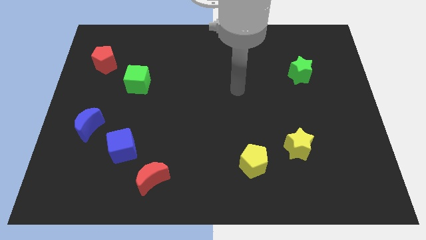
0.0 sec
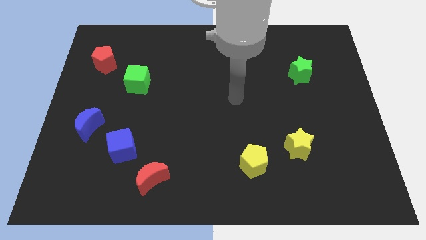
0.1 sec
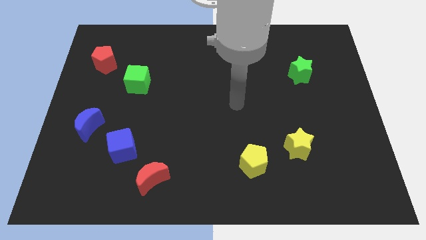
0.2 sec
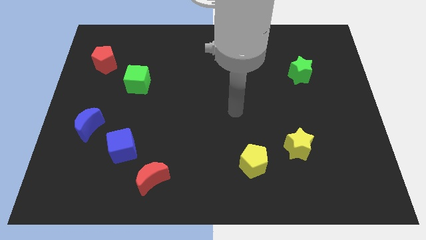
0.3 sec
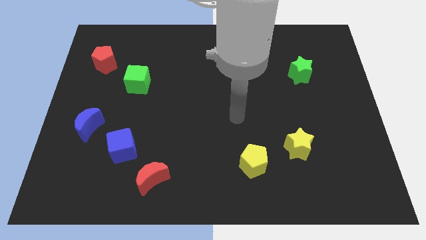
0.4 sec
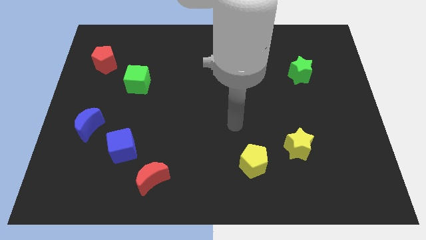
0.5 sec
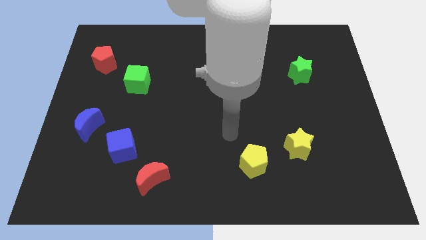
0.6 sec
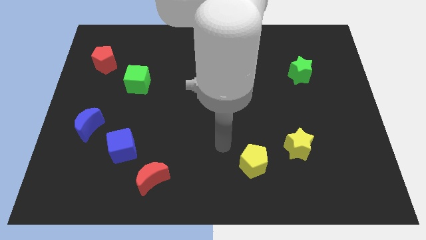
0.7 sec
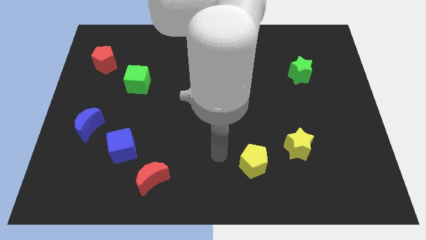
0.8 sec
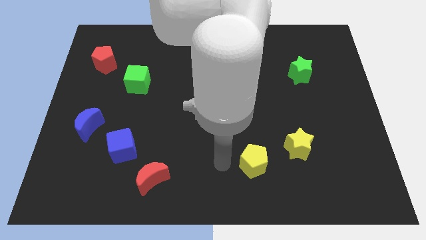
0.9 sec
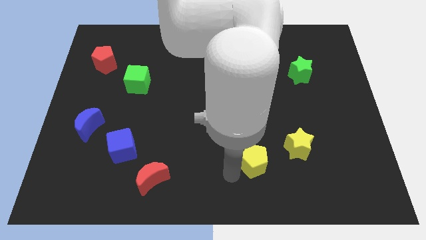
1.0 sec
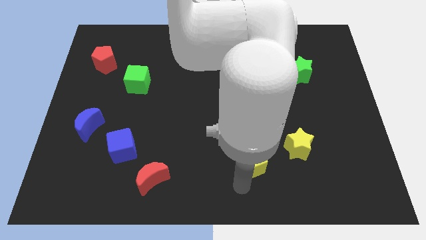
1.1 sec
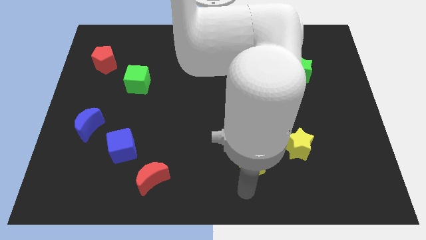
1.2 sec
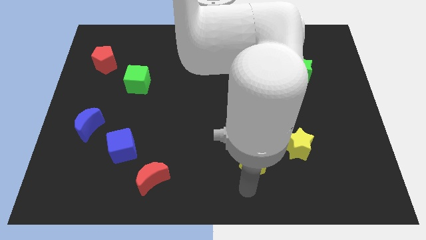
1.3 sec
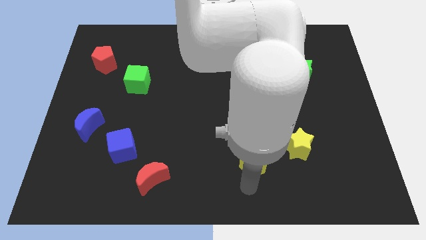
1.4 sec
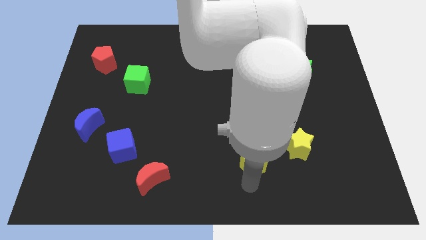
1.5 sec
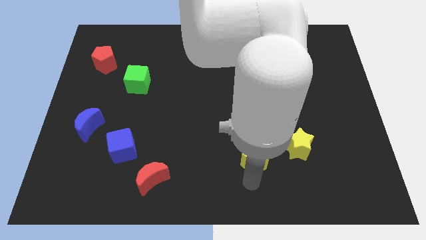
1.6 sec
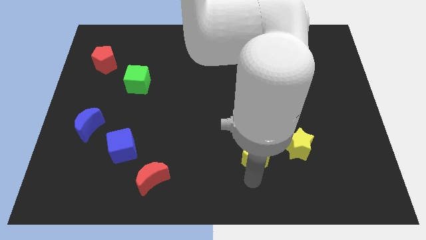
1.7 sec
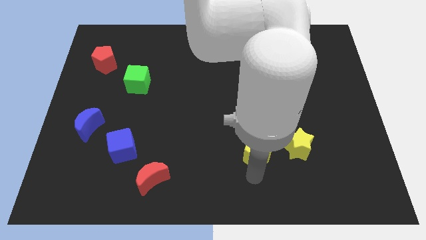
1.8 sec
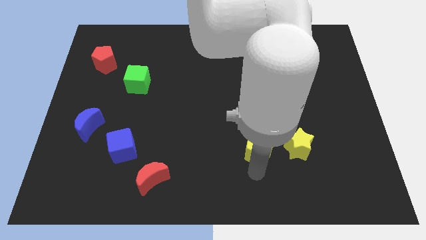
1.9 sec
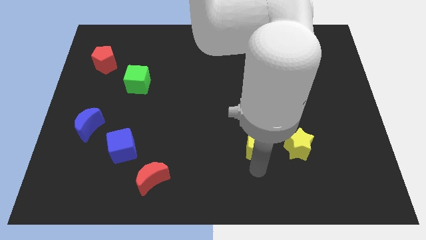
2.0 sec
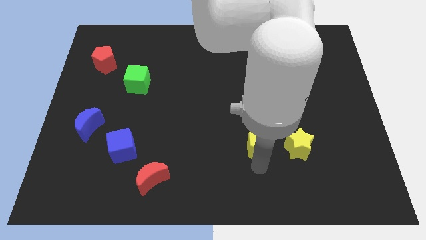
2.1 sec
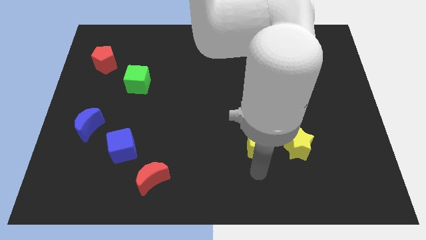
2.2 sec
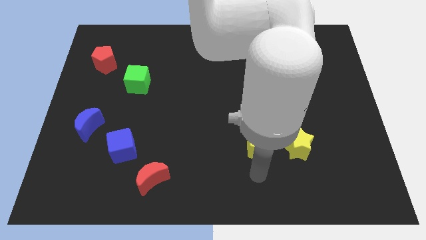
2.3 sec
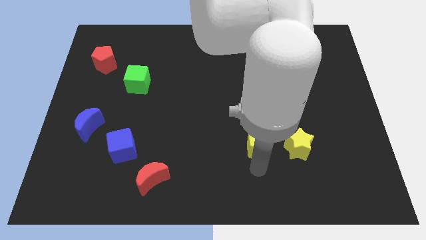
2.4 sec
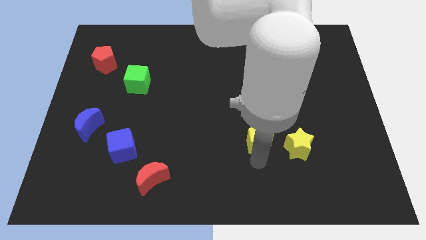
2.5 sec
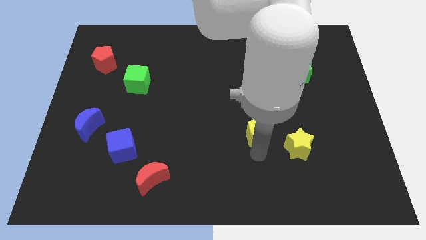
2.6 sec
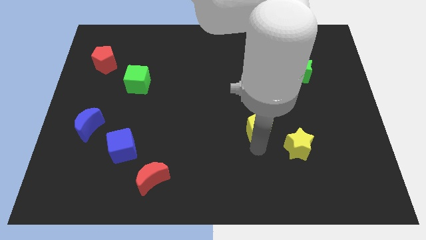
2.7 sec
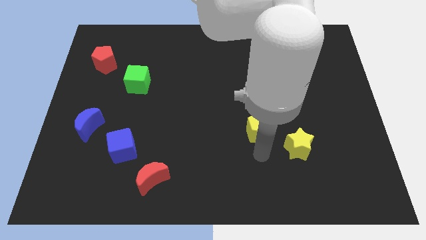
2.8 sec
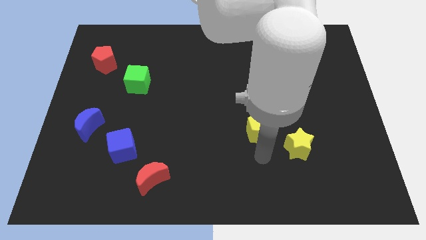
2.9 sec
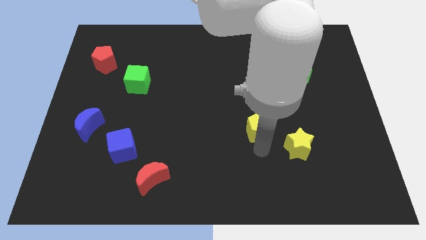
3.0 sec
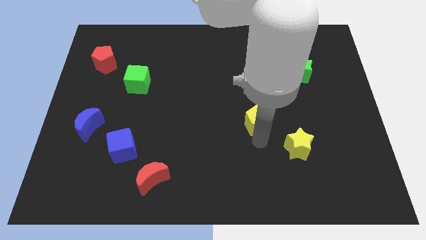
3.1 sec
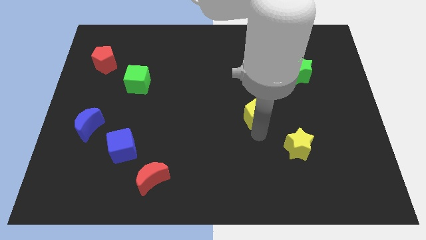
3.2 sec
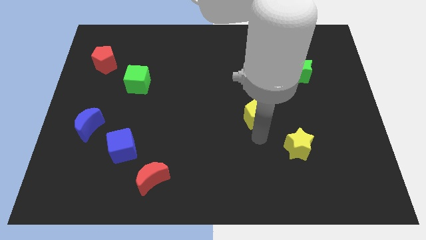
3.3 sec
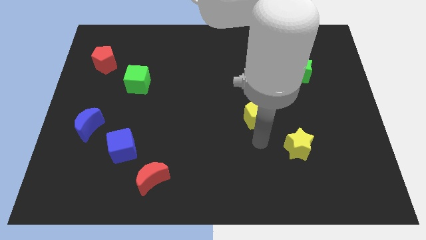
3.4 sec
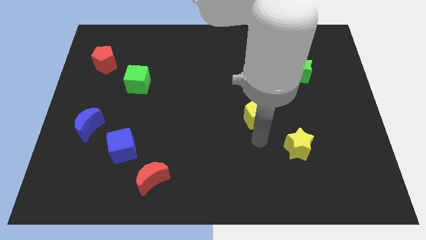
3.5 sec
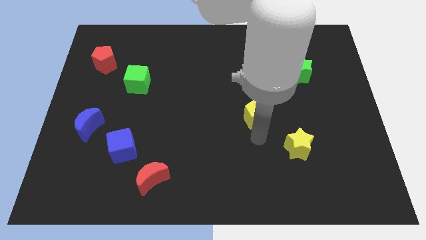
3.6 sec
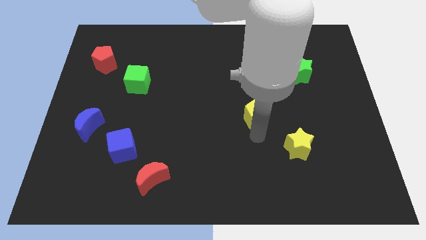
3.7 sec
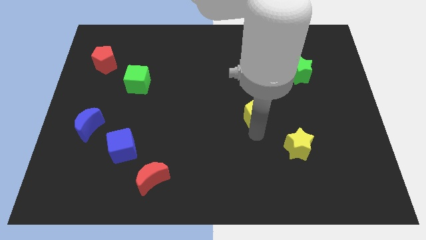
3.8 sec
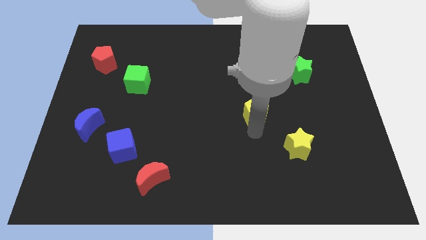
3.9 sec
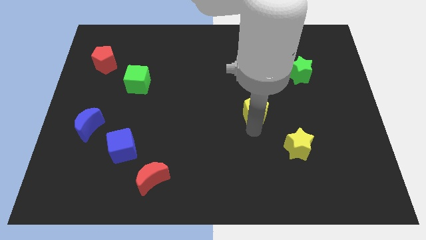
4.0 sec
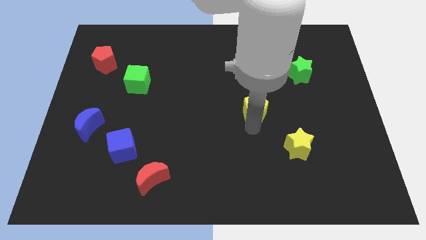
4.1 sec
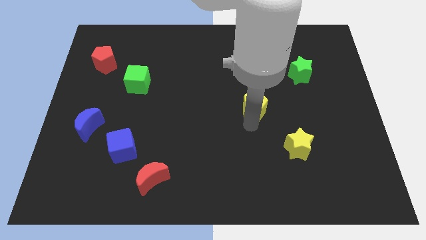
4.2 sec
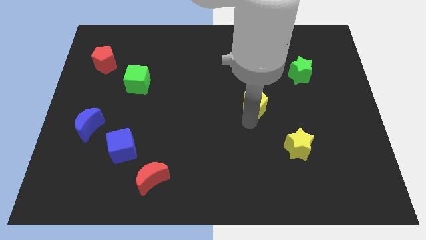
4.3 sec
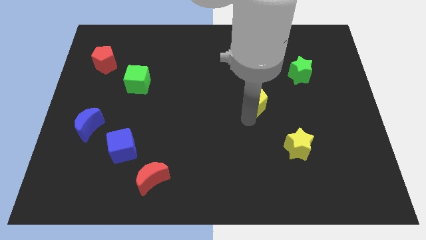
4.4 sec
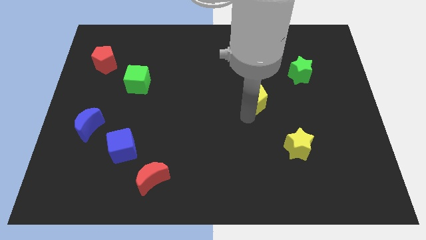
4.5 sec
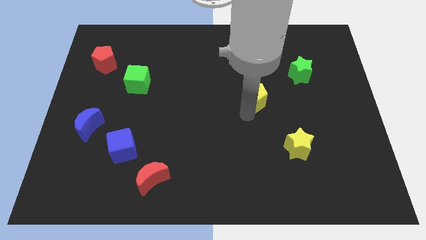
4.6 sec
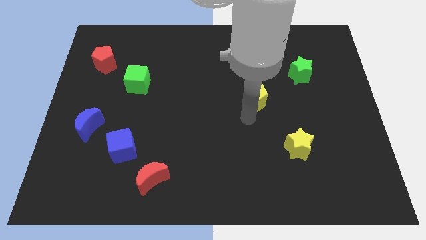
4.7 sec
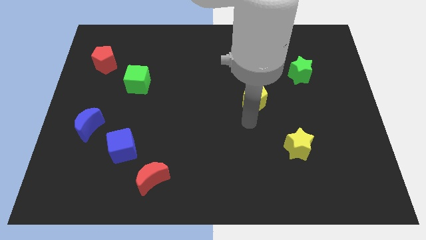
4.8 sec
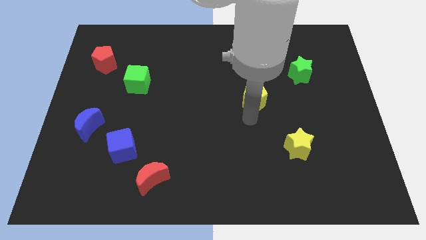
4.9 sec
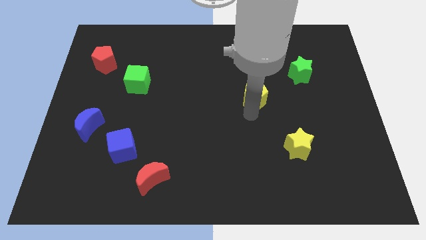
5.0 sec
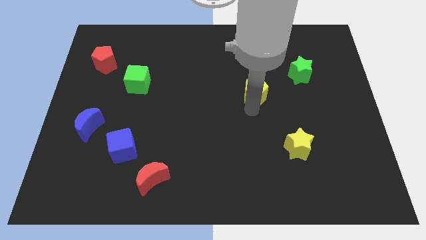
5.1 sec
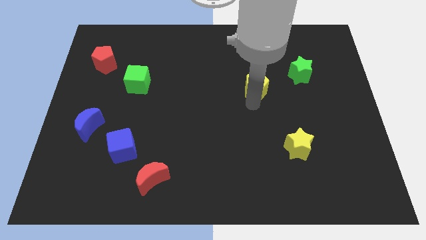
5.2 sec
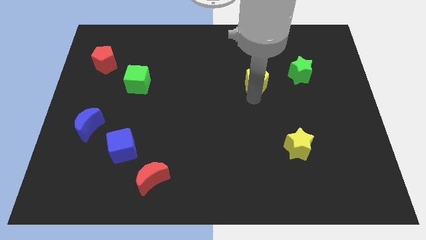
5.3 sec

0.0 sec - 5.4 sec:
push the yellow pentagon to the left of the green star
